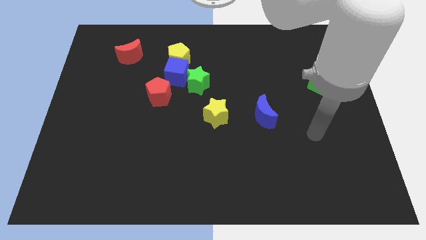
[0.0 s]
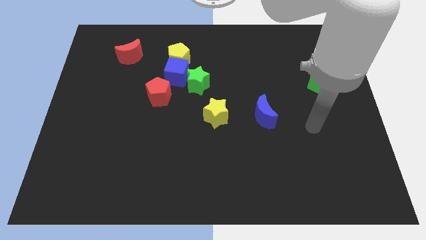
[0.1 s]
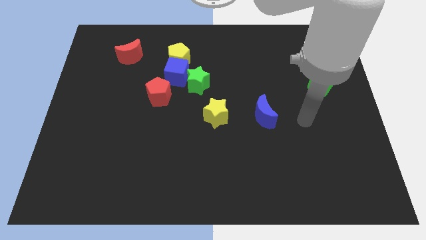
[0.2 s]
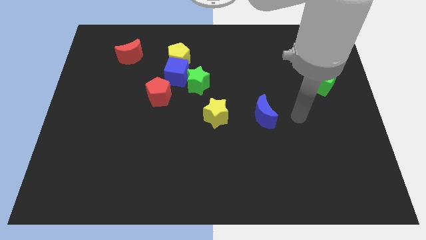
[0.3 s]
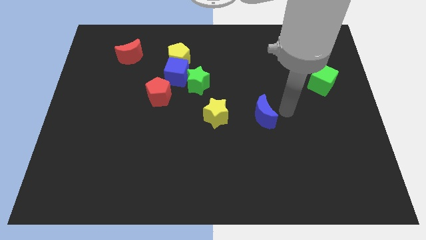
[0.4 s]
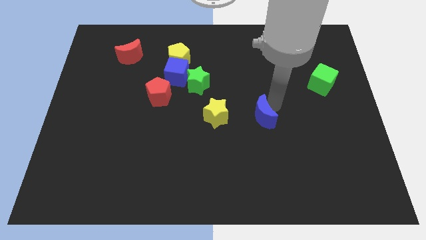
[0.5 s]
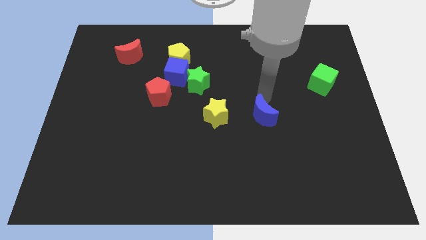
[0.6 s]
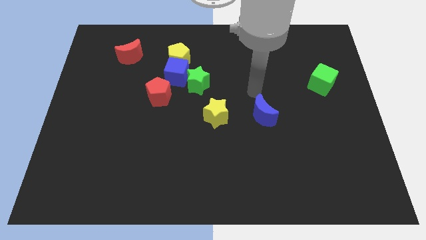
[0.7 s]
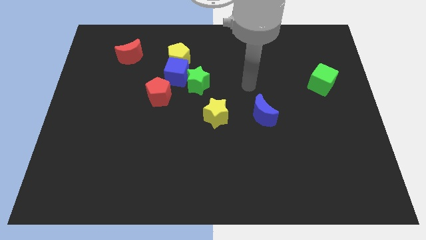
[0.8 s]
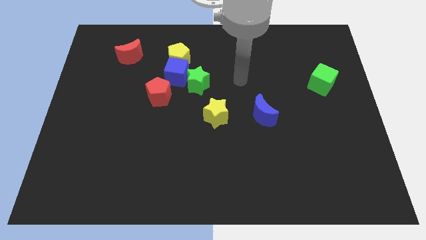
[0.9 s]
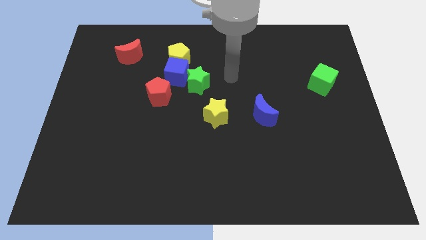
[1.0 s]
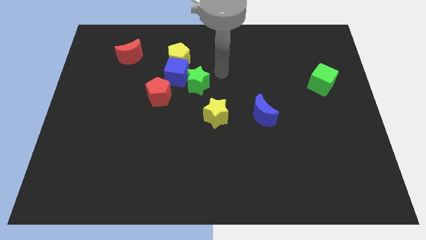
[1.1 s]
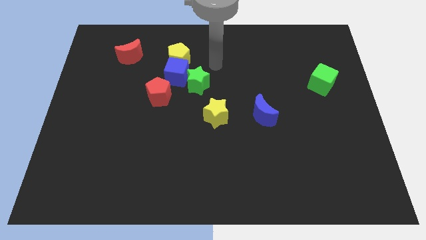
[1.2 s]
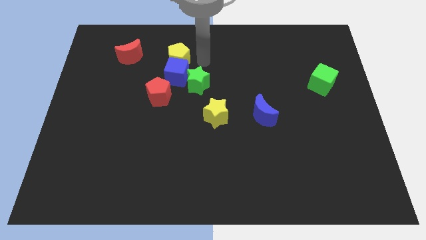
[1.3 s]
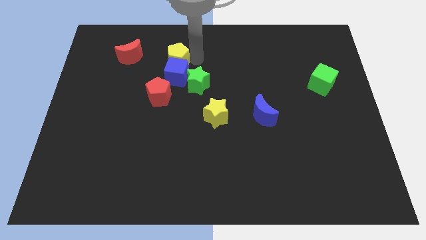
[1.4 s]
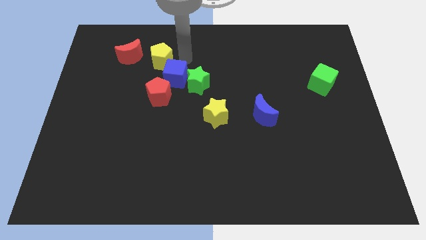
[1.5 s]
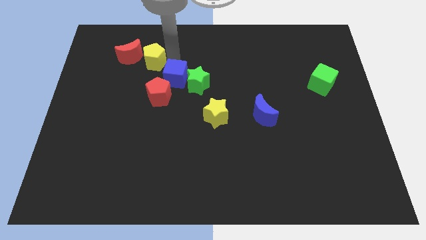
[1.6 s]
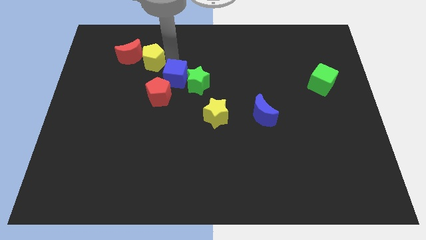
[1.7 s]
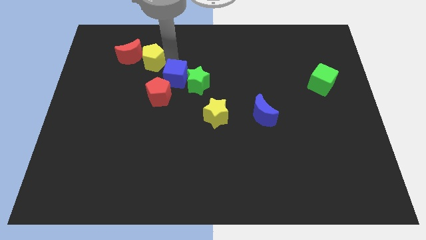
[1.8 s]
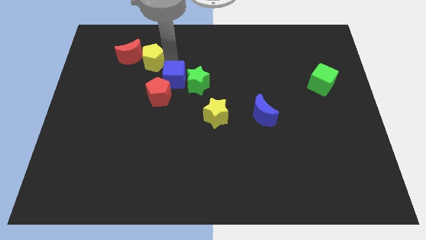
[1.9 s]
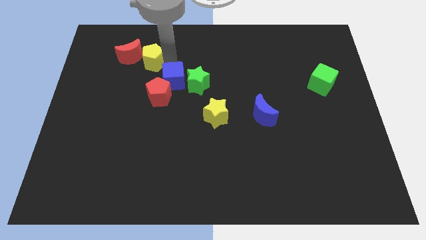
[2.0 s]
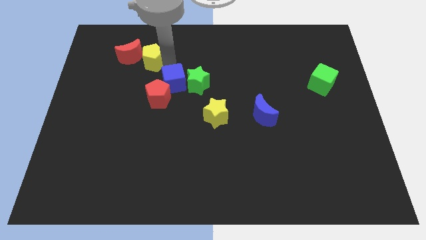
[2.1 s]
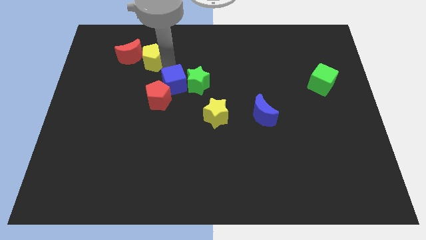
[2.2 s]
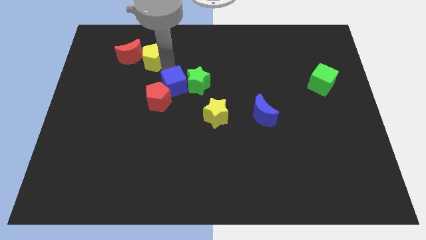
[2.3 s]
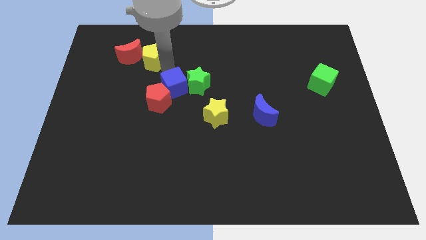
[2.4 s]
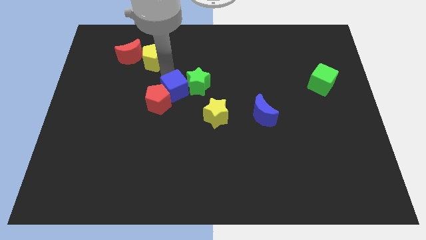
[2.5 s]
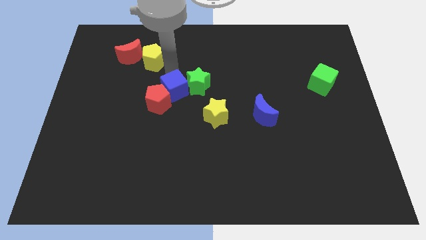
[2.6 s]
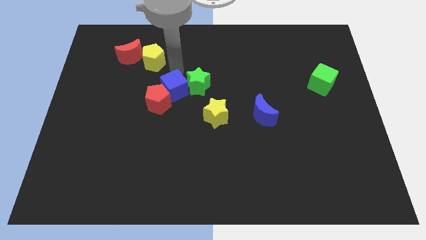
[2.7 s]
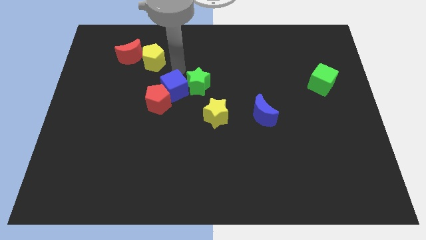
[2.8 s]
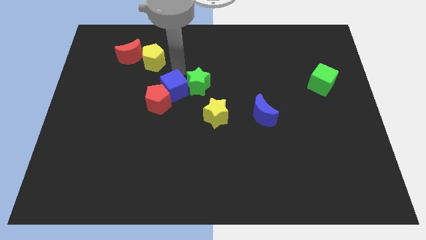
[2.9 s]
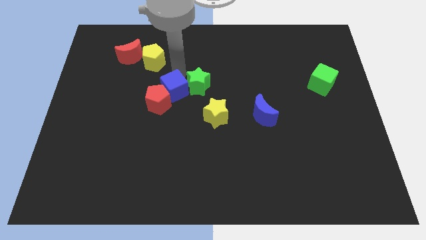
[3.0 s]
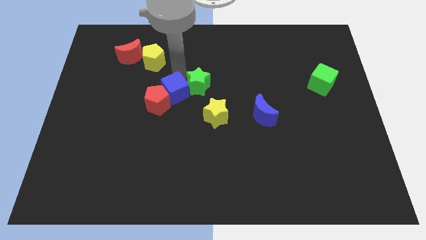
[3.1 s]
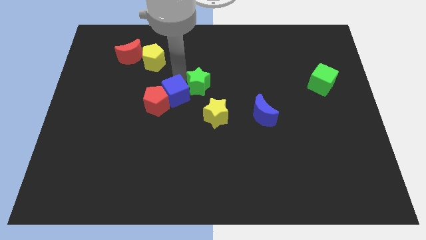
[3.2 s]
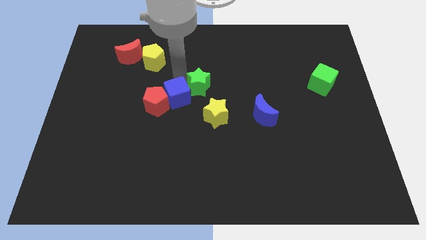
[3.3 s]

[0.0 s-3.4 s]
push the blue cube down slightly

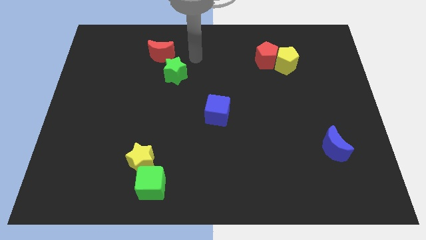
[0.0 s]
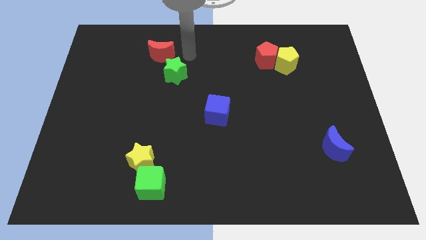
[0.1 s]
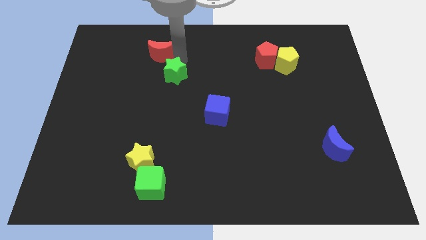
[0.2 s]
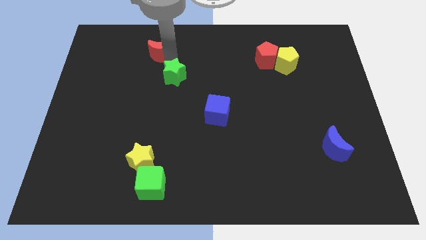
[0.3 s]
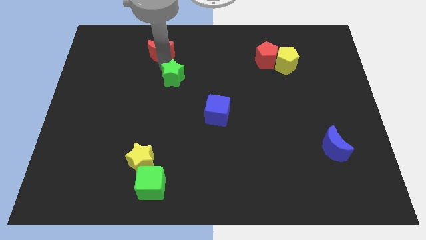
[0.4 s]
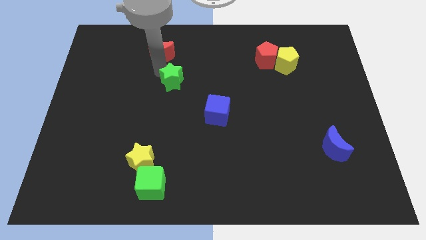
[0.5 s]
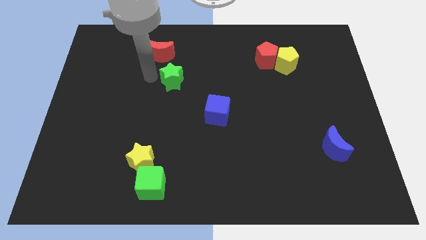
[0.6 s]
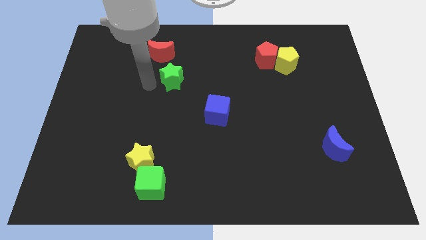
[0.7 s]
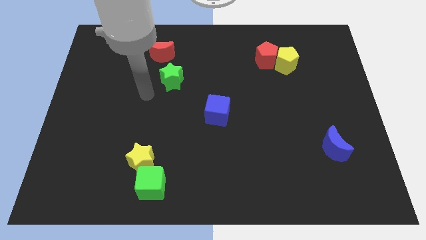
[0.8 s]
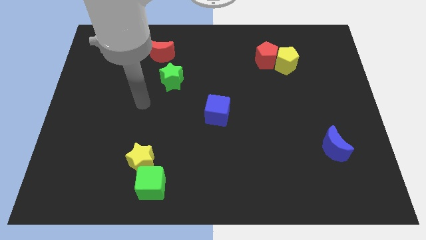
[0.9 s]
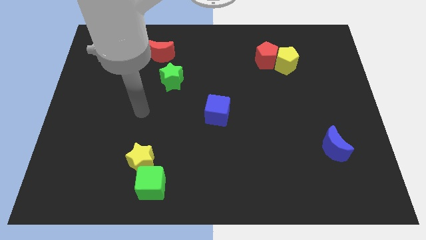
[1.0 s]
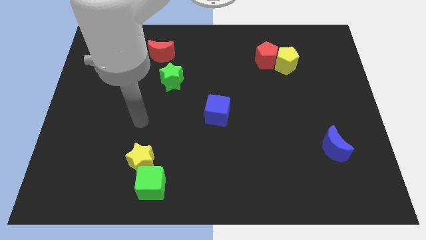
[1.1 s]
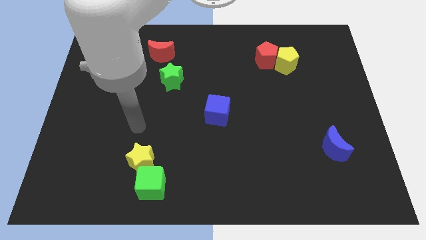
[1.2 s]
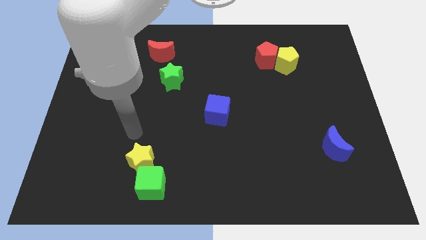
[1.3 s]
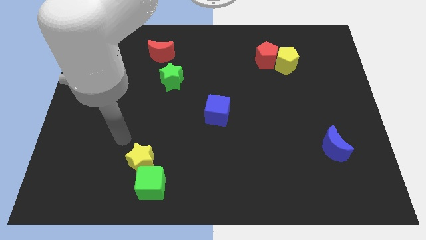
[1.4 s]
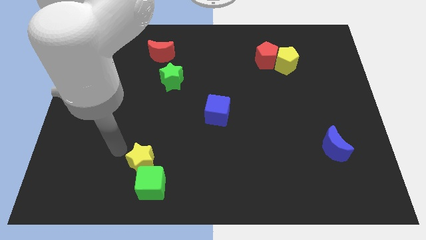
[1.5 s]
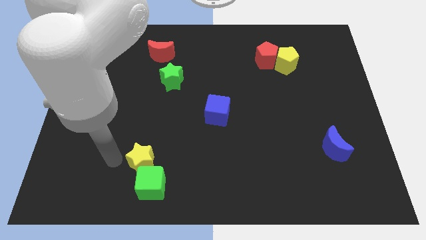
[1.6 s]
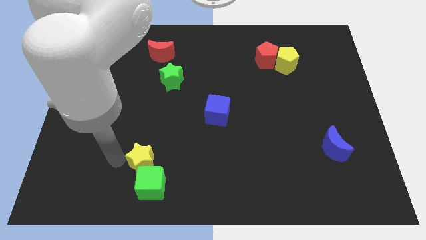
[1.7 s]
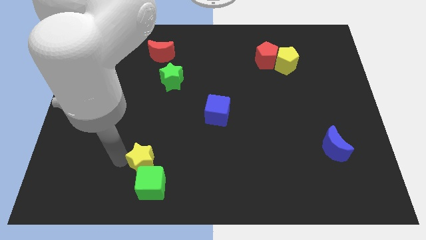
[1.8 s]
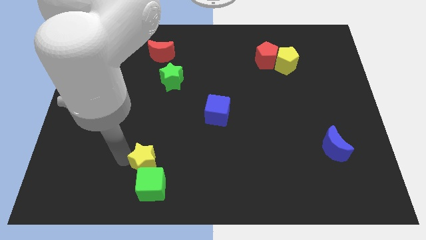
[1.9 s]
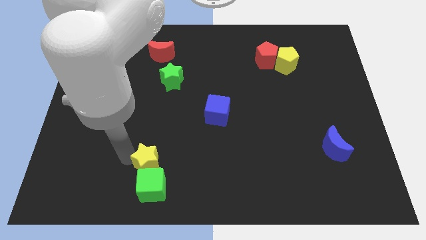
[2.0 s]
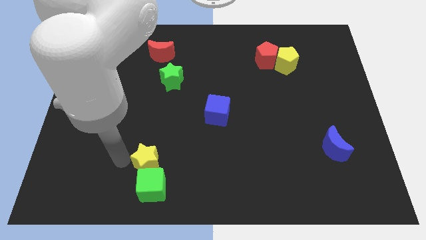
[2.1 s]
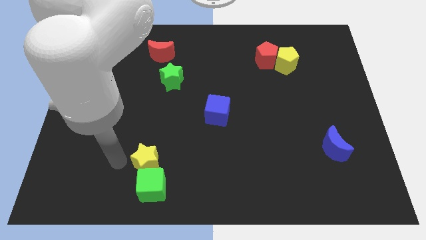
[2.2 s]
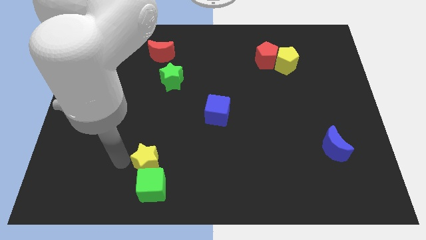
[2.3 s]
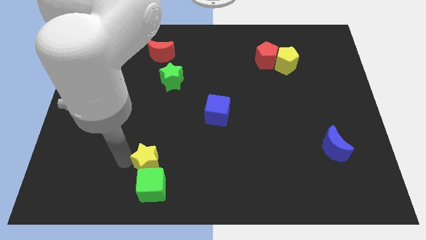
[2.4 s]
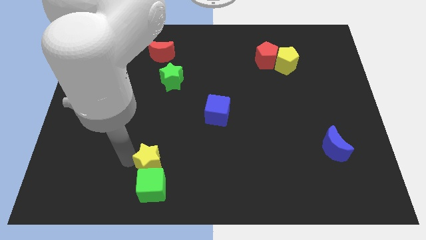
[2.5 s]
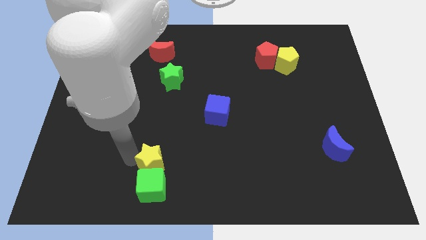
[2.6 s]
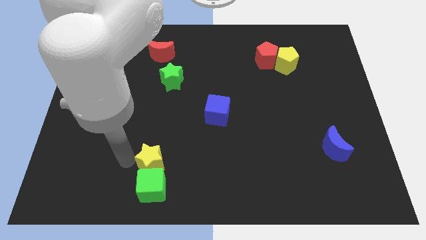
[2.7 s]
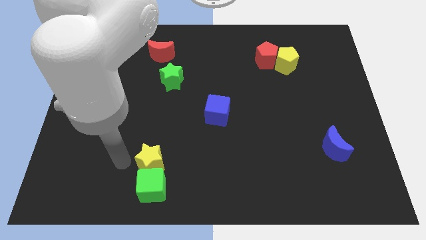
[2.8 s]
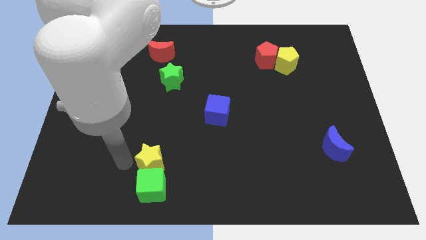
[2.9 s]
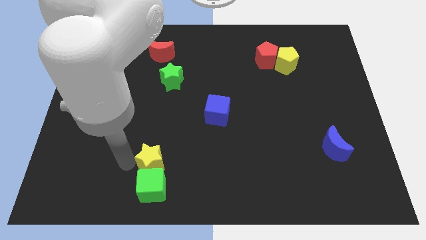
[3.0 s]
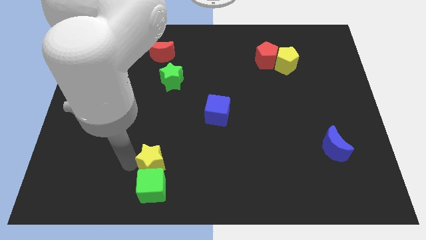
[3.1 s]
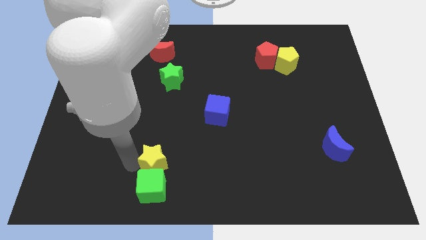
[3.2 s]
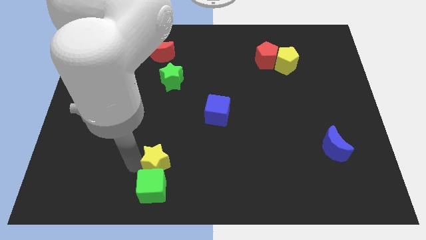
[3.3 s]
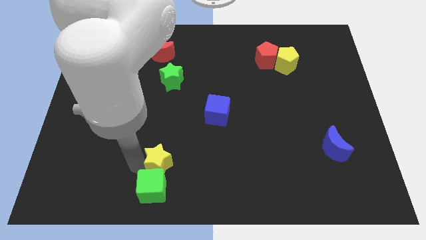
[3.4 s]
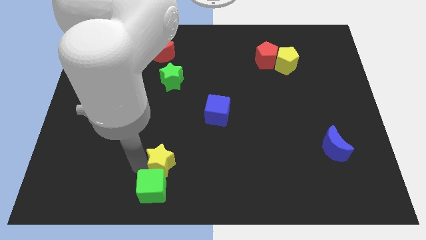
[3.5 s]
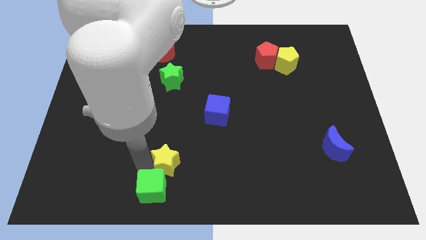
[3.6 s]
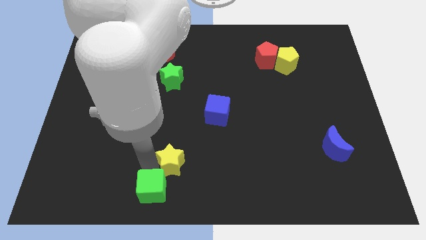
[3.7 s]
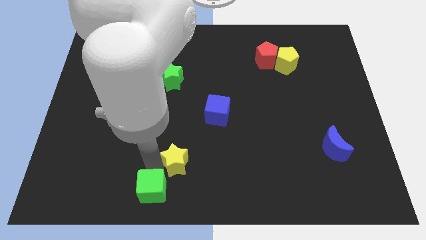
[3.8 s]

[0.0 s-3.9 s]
slightly slide the yellow star right

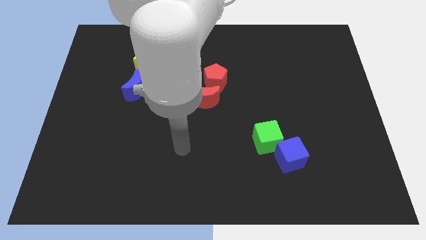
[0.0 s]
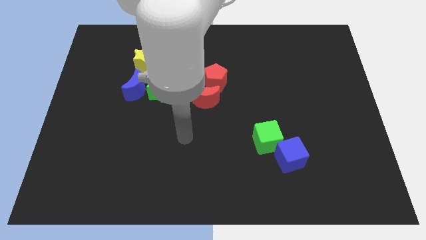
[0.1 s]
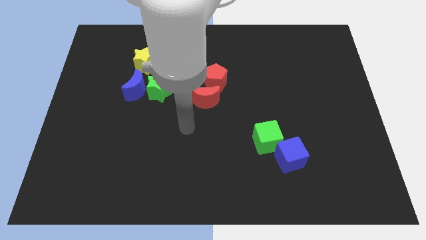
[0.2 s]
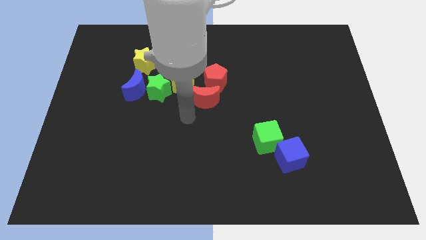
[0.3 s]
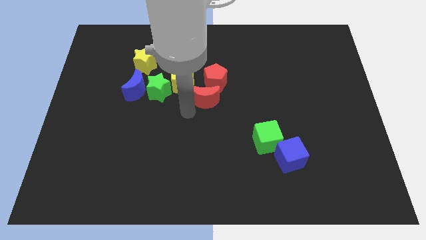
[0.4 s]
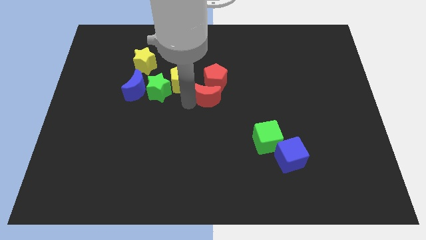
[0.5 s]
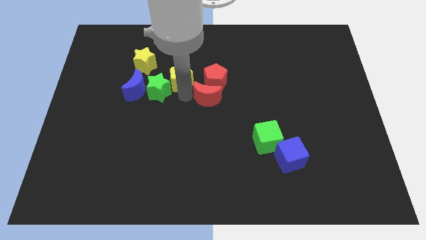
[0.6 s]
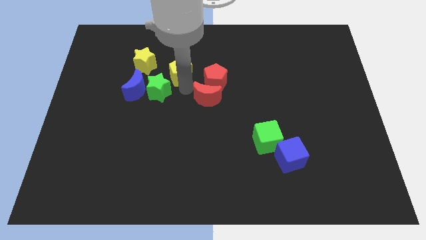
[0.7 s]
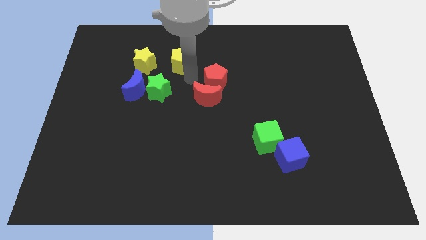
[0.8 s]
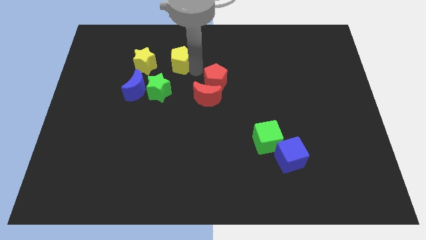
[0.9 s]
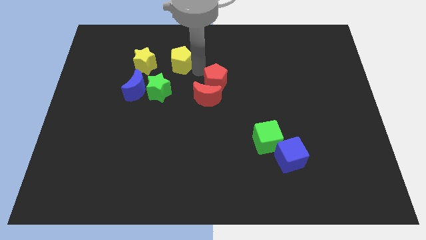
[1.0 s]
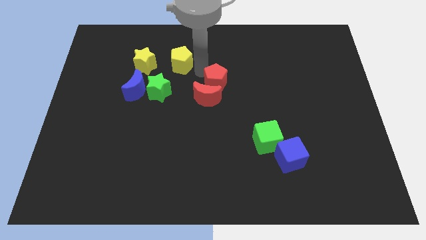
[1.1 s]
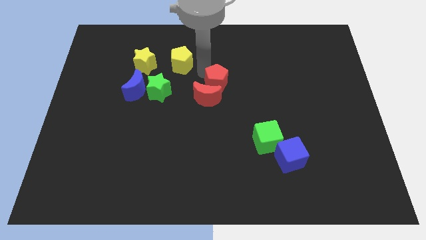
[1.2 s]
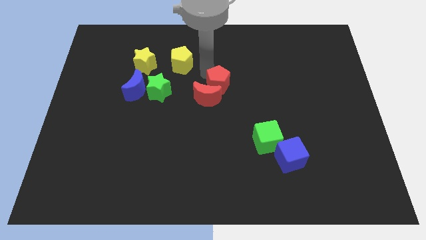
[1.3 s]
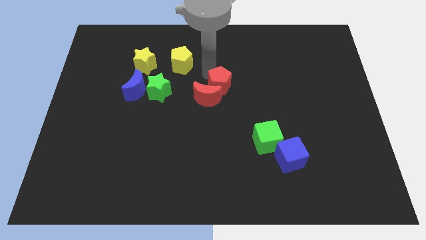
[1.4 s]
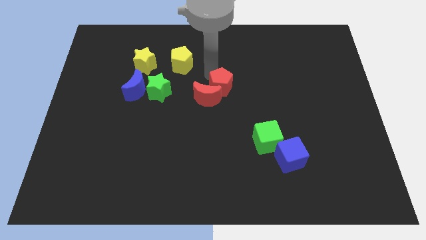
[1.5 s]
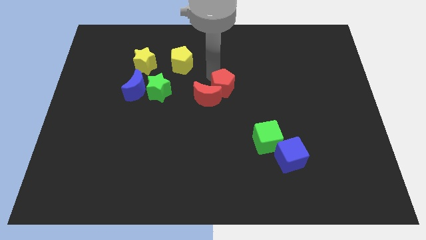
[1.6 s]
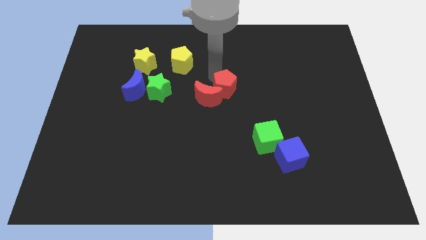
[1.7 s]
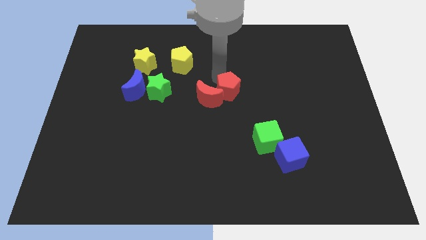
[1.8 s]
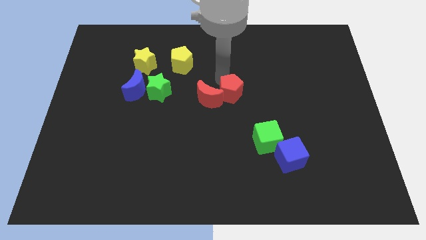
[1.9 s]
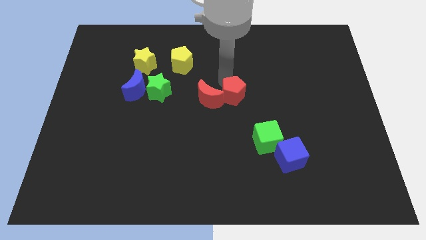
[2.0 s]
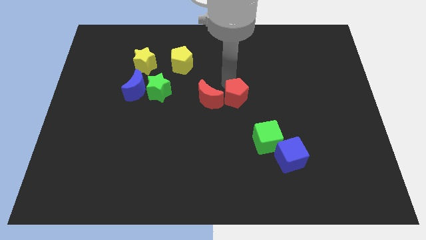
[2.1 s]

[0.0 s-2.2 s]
push the red pentagon downwards and then right a little bit
